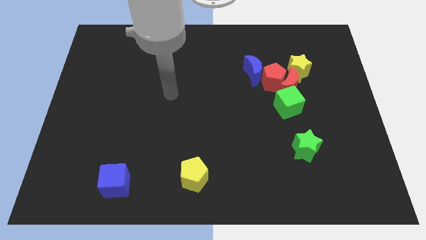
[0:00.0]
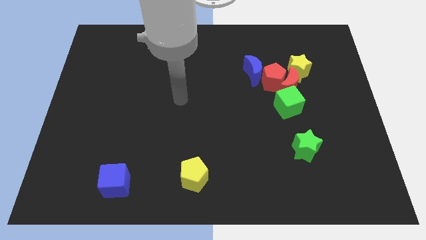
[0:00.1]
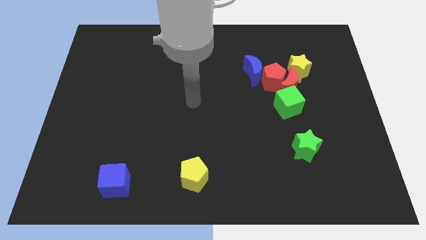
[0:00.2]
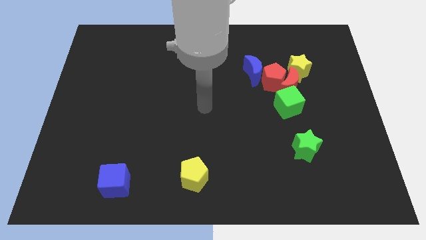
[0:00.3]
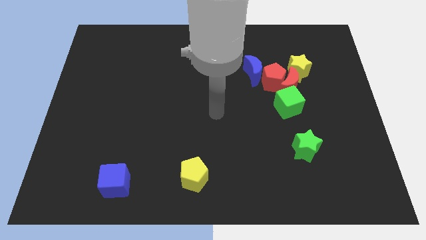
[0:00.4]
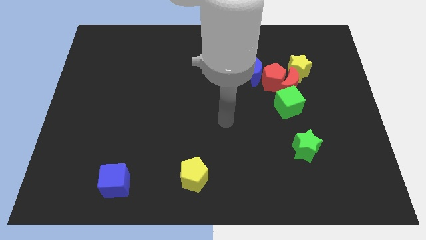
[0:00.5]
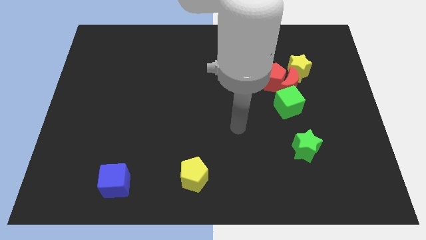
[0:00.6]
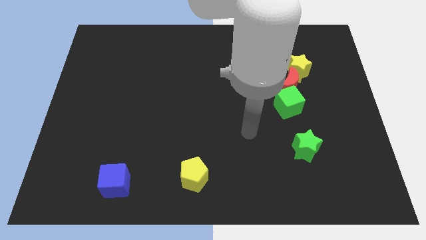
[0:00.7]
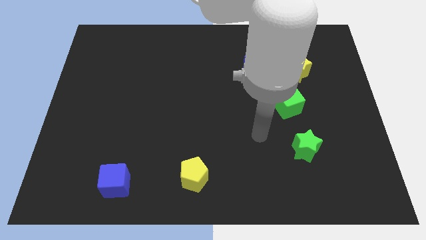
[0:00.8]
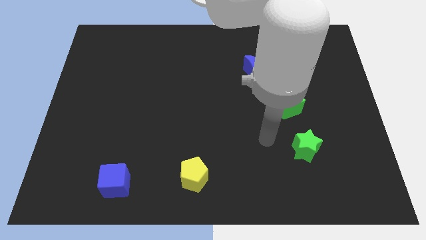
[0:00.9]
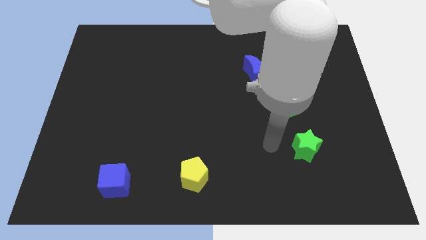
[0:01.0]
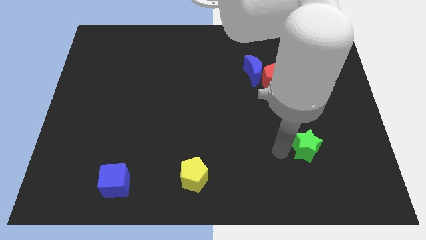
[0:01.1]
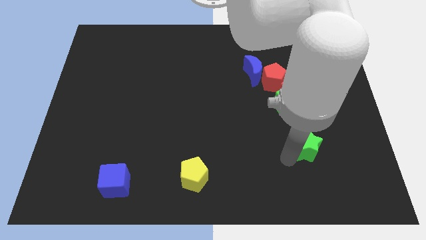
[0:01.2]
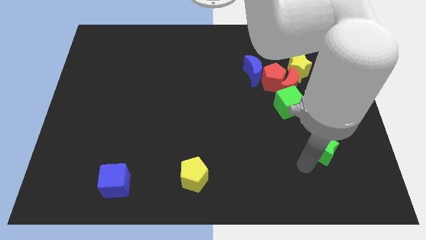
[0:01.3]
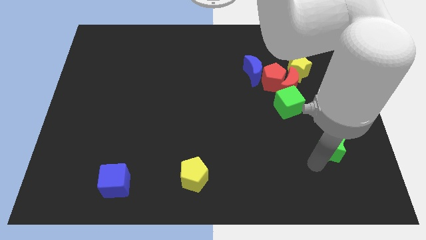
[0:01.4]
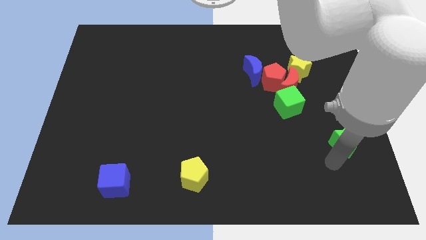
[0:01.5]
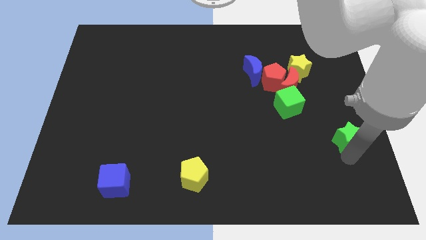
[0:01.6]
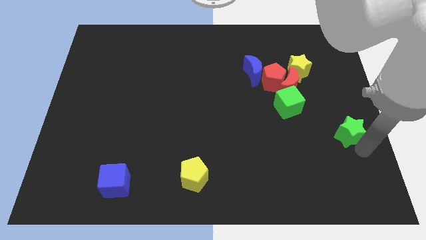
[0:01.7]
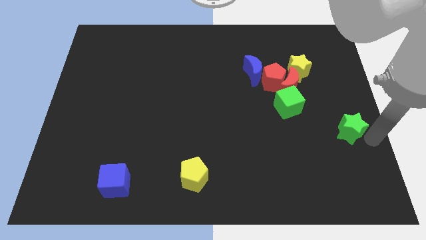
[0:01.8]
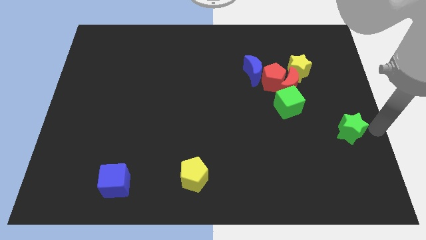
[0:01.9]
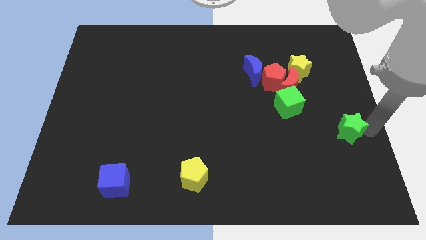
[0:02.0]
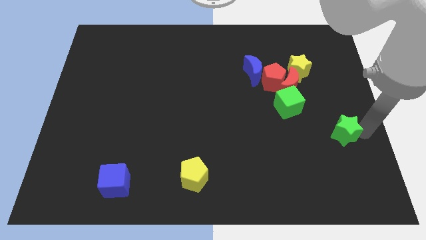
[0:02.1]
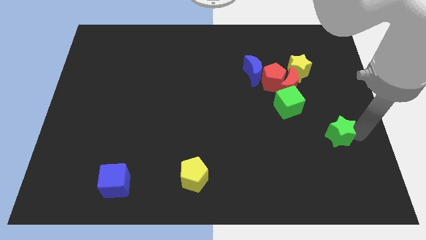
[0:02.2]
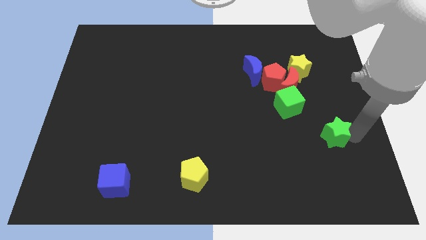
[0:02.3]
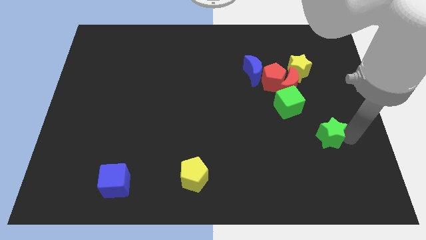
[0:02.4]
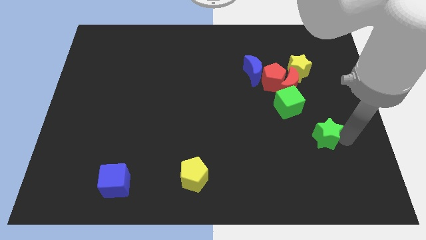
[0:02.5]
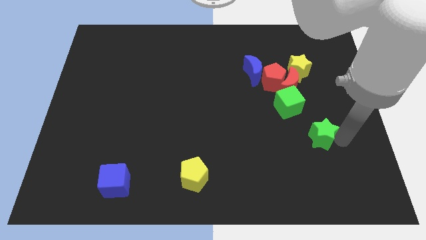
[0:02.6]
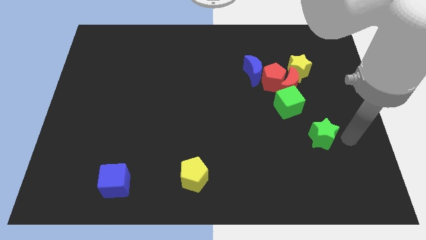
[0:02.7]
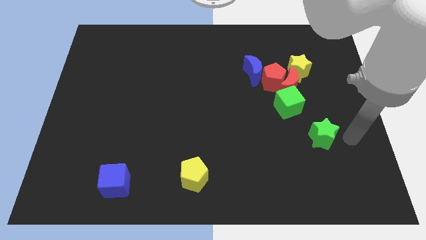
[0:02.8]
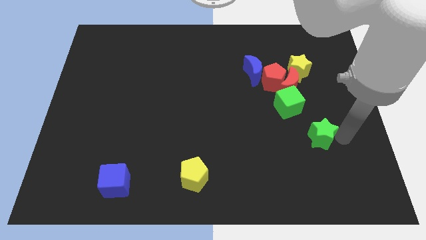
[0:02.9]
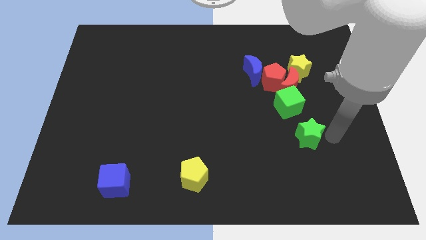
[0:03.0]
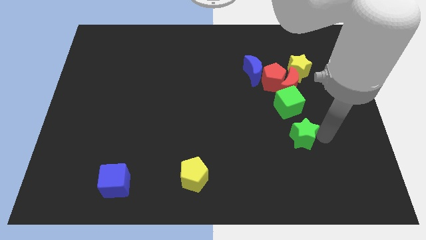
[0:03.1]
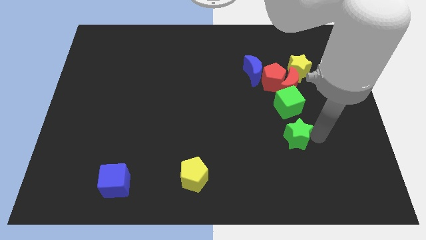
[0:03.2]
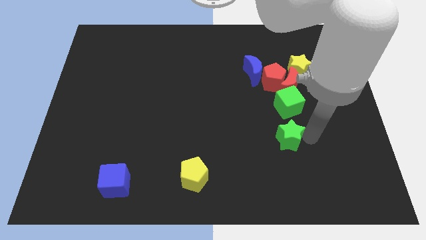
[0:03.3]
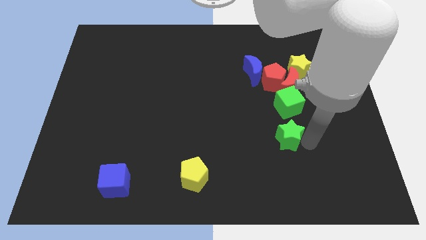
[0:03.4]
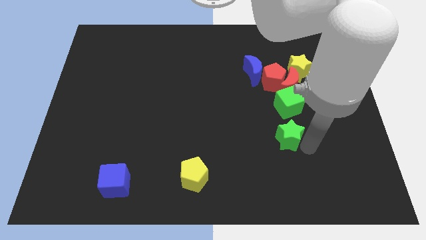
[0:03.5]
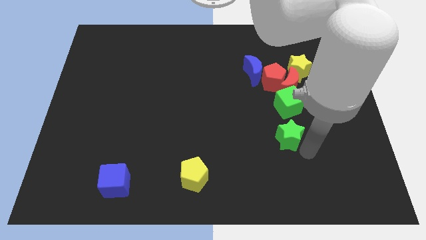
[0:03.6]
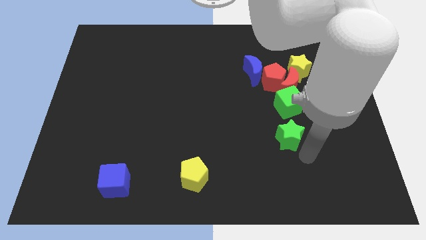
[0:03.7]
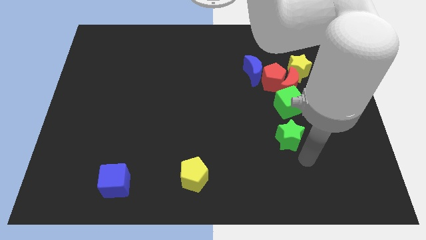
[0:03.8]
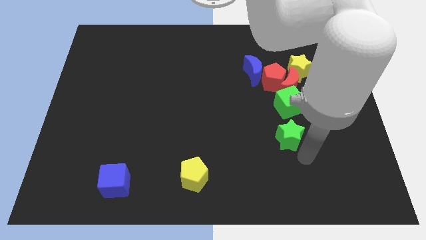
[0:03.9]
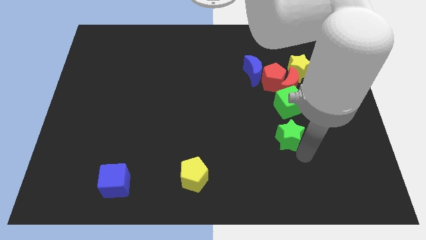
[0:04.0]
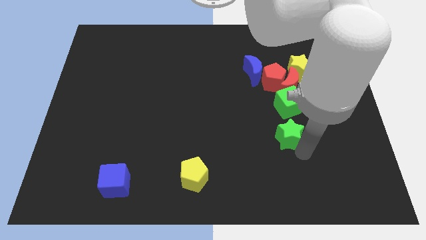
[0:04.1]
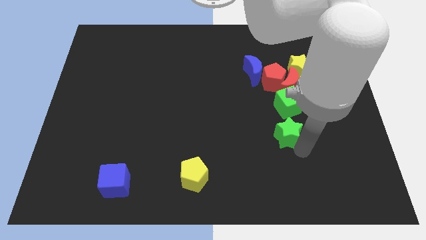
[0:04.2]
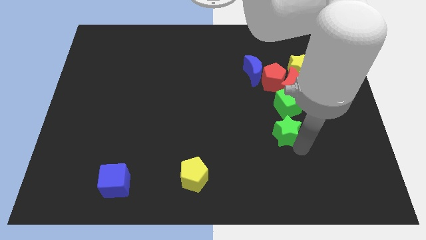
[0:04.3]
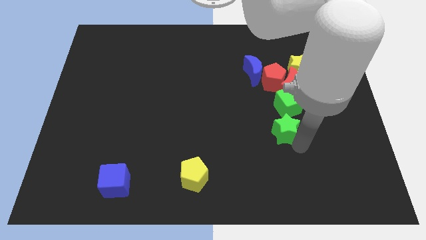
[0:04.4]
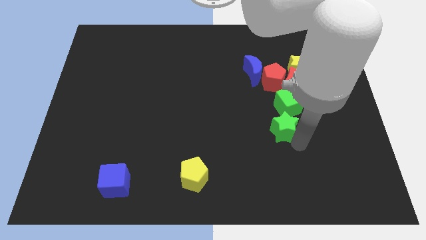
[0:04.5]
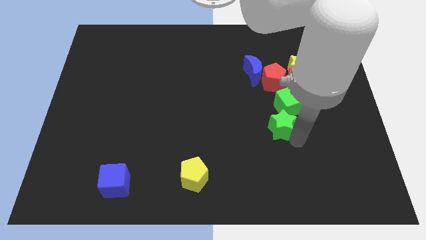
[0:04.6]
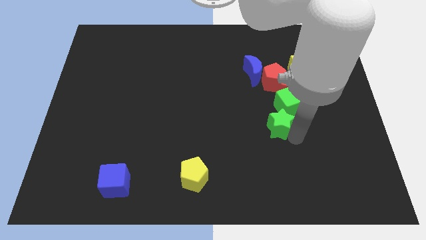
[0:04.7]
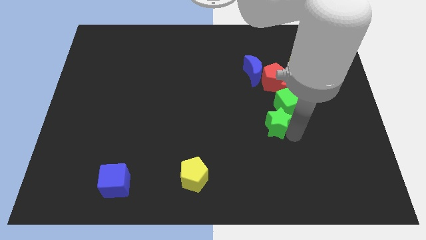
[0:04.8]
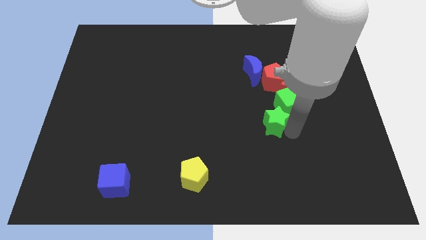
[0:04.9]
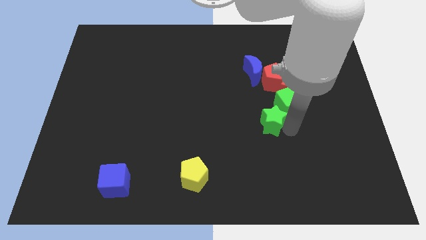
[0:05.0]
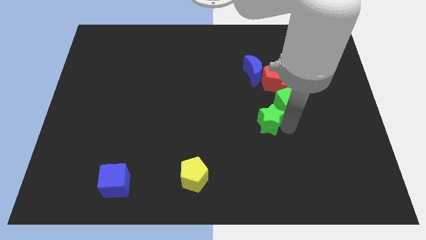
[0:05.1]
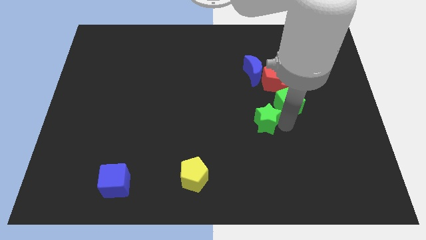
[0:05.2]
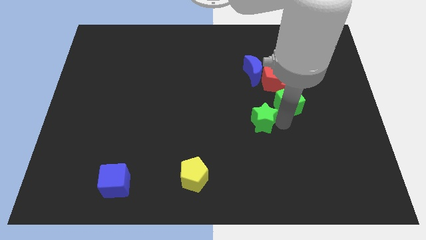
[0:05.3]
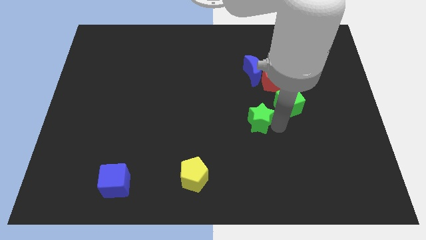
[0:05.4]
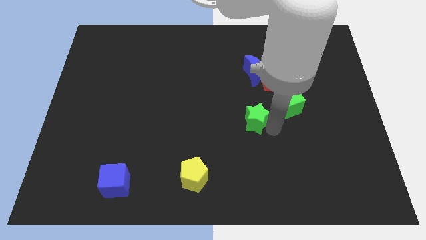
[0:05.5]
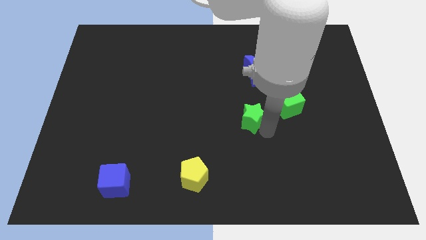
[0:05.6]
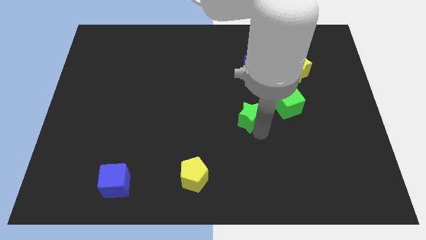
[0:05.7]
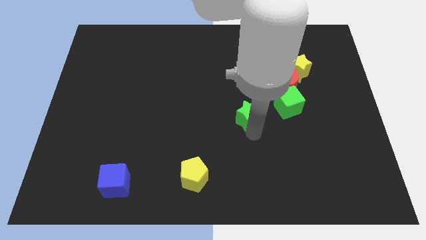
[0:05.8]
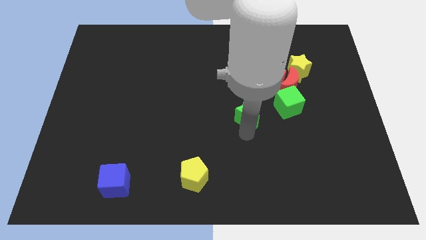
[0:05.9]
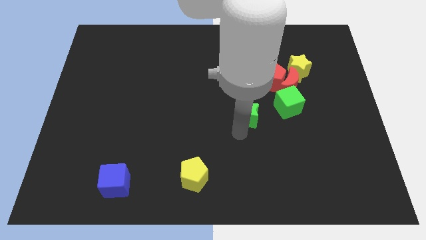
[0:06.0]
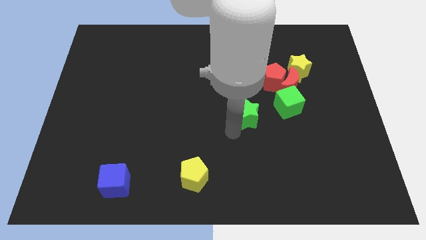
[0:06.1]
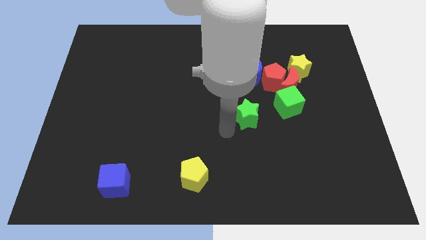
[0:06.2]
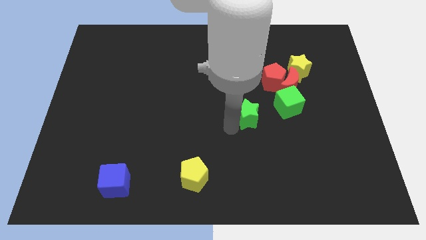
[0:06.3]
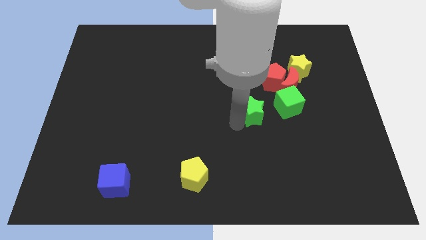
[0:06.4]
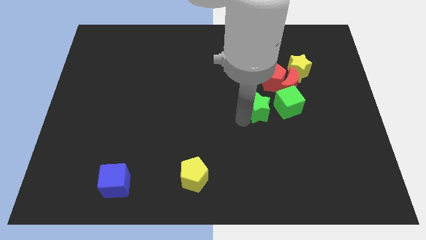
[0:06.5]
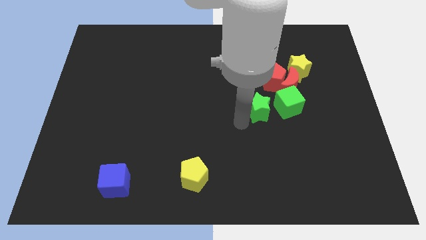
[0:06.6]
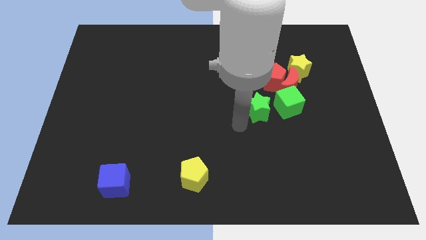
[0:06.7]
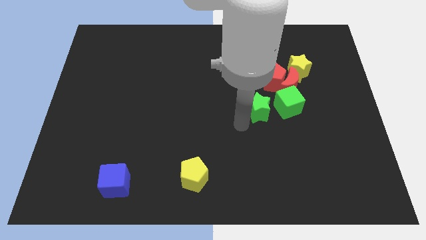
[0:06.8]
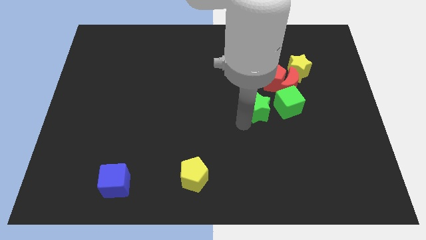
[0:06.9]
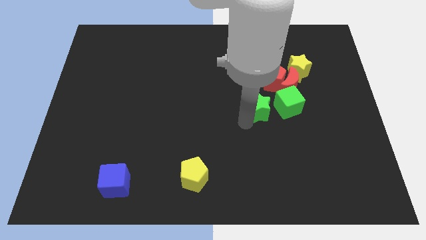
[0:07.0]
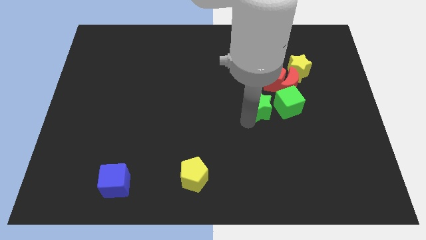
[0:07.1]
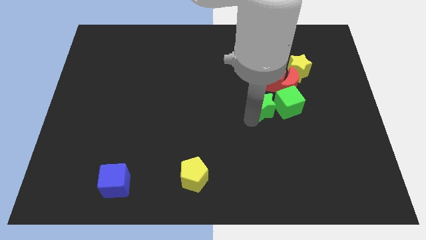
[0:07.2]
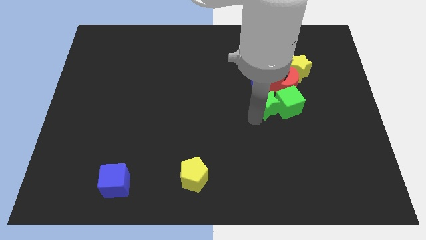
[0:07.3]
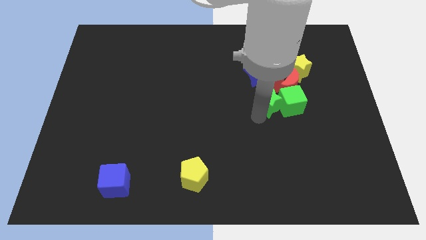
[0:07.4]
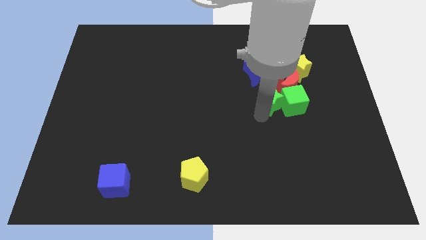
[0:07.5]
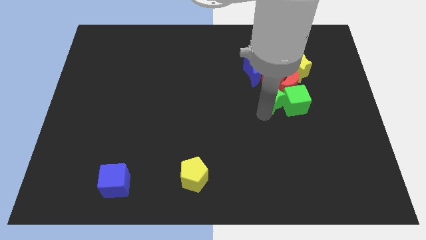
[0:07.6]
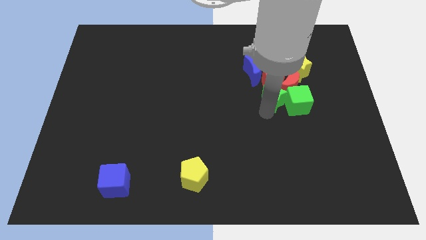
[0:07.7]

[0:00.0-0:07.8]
push the green star next to the red pentagon

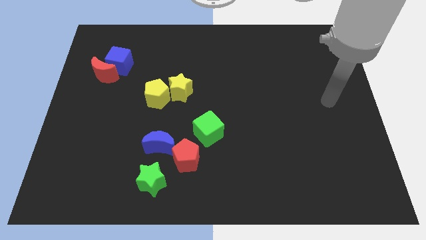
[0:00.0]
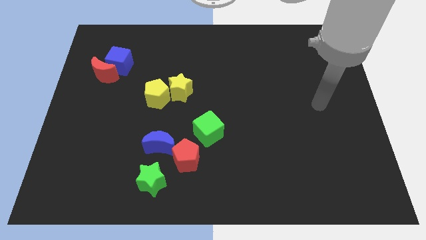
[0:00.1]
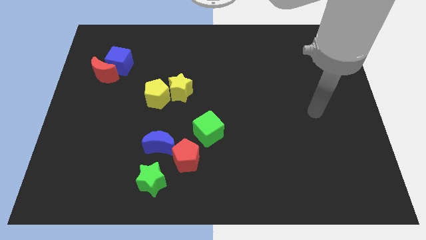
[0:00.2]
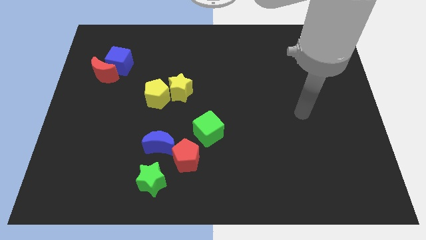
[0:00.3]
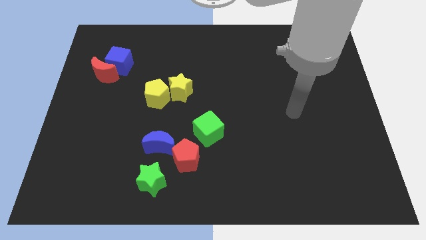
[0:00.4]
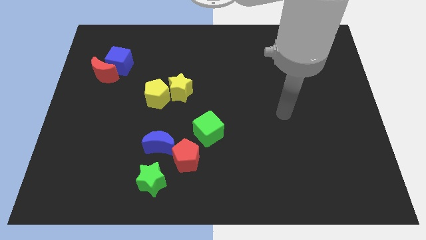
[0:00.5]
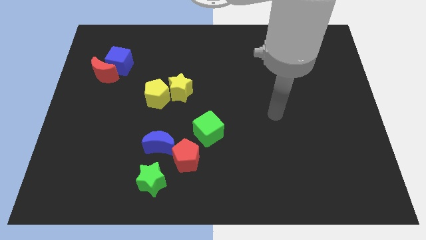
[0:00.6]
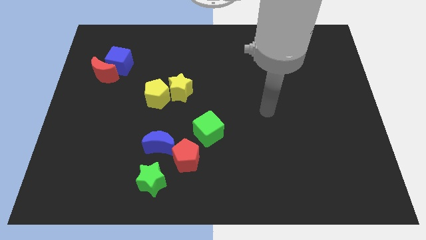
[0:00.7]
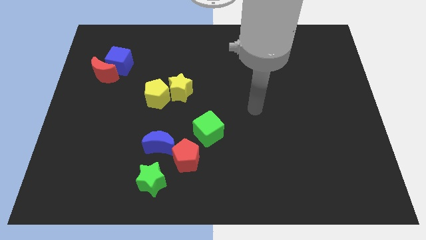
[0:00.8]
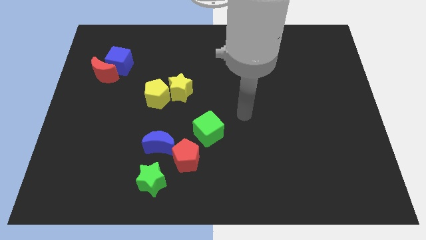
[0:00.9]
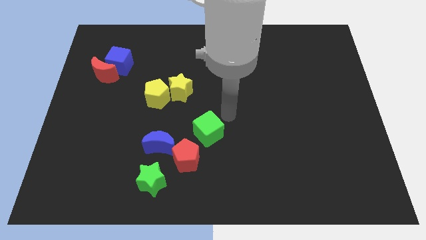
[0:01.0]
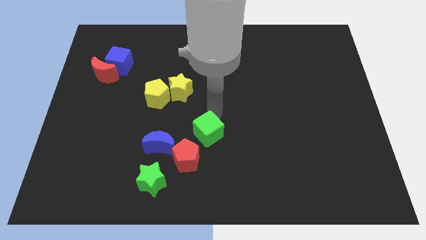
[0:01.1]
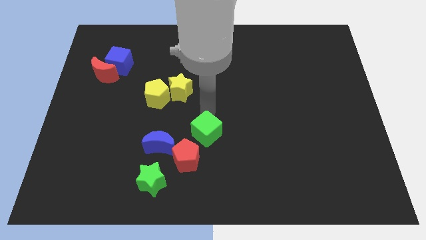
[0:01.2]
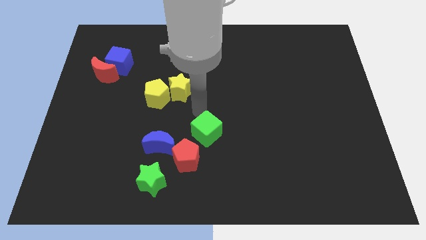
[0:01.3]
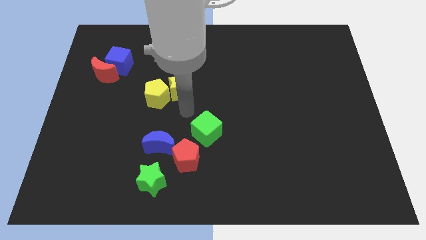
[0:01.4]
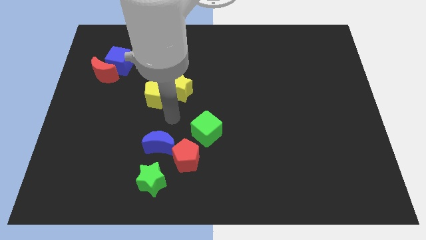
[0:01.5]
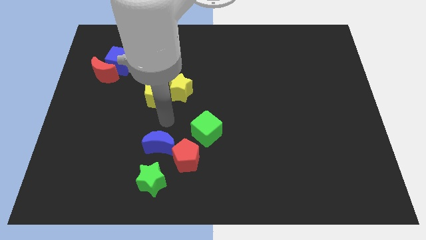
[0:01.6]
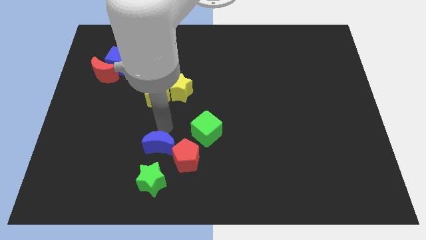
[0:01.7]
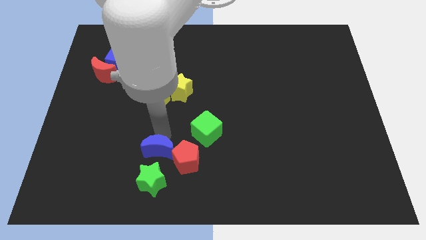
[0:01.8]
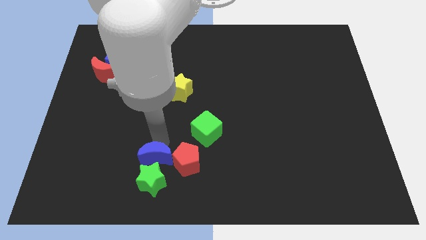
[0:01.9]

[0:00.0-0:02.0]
push the blue moon close to the green star
